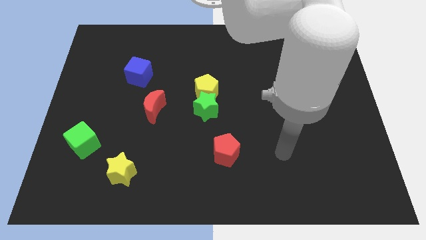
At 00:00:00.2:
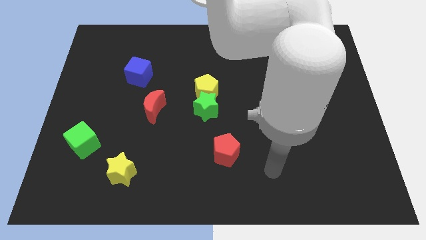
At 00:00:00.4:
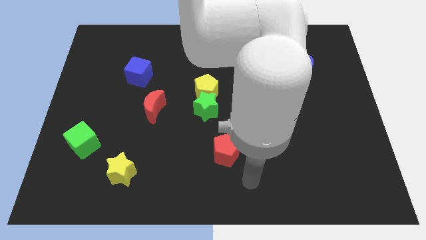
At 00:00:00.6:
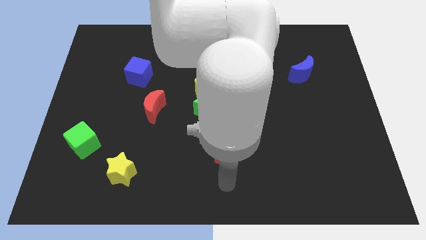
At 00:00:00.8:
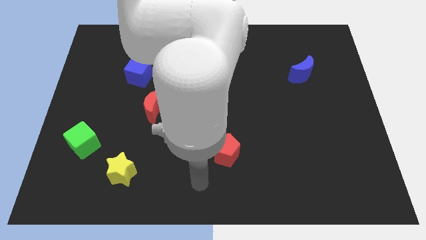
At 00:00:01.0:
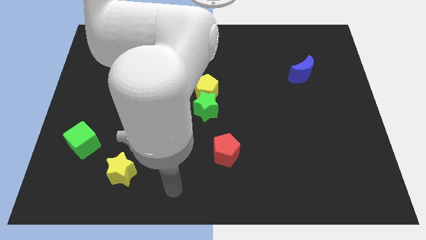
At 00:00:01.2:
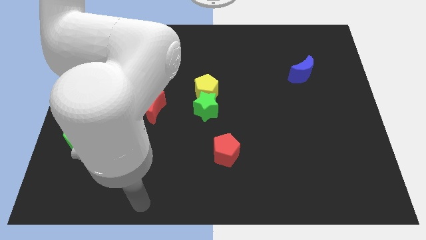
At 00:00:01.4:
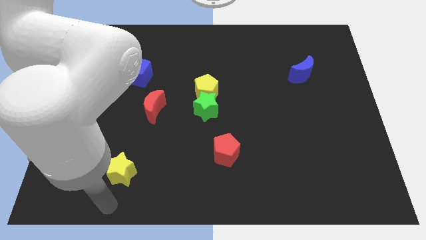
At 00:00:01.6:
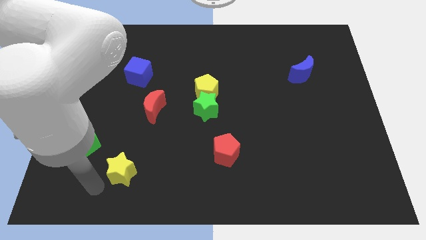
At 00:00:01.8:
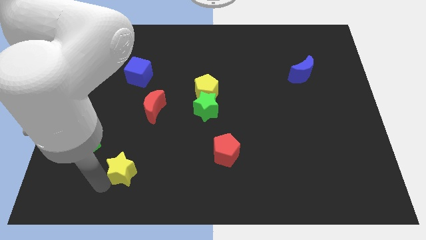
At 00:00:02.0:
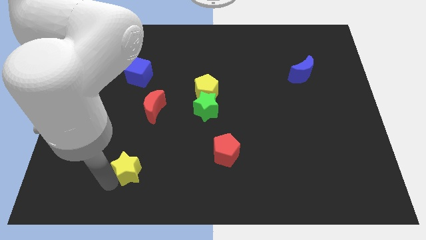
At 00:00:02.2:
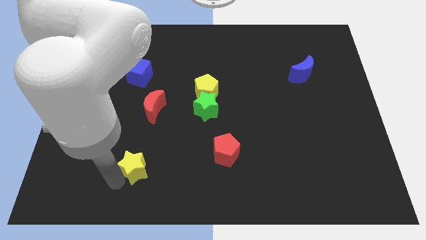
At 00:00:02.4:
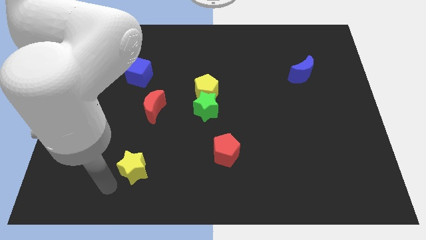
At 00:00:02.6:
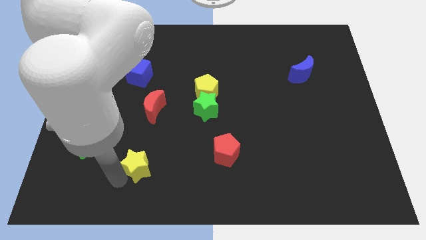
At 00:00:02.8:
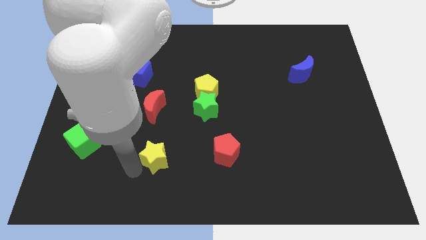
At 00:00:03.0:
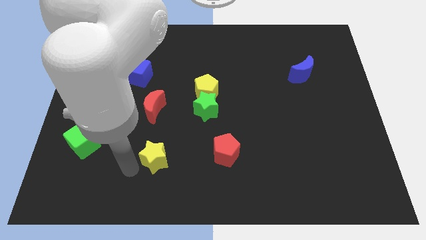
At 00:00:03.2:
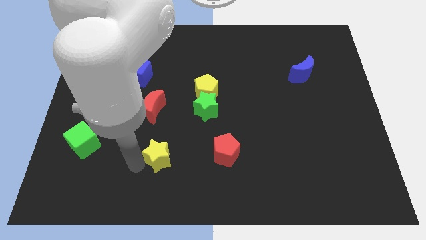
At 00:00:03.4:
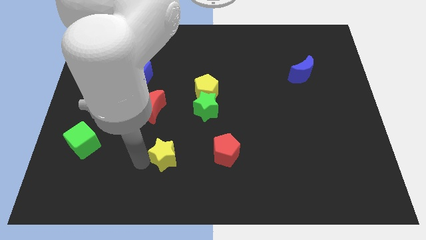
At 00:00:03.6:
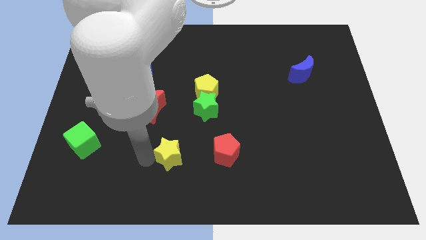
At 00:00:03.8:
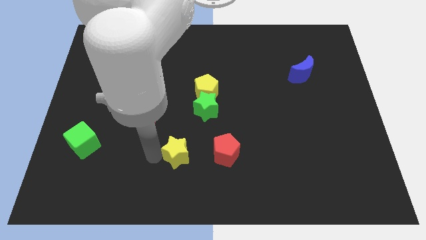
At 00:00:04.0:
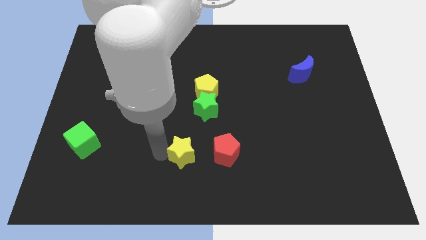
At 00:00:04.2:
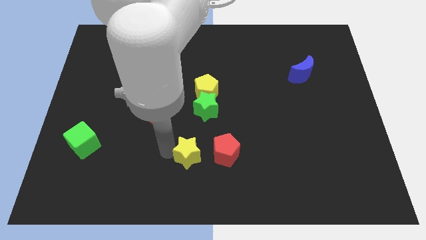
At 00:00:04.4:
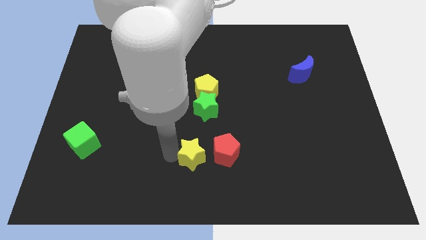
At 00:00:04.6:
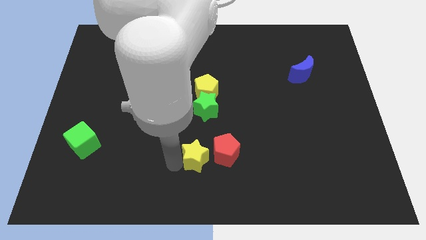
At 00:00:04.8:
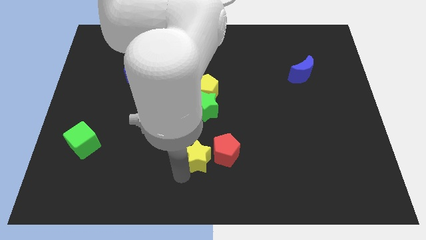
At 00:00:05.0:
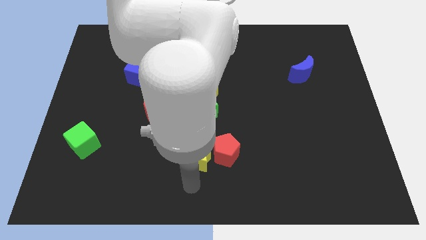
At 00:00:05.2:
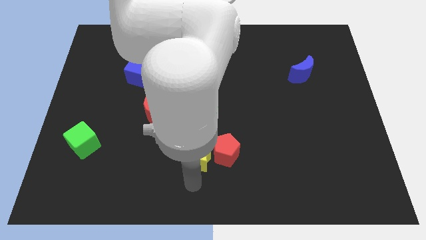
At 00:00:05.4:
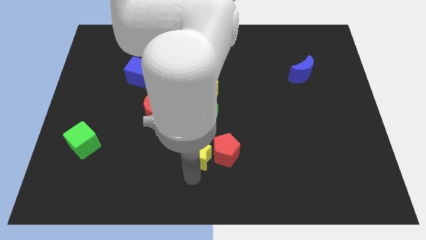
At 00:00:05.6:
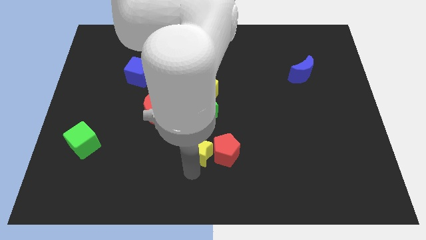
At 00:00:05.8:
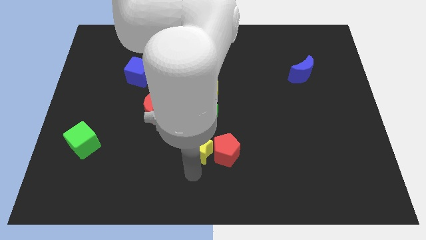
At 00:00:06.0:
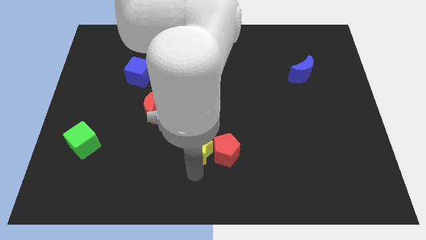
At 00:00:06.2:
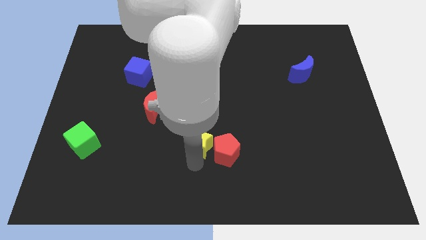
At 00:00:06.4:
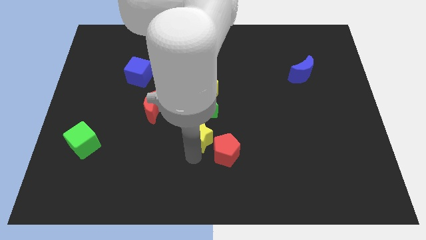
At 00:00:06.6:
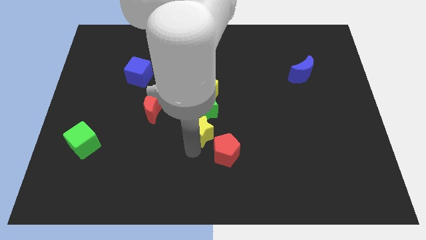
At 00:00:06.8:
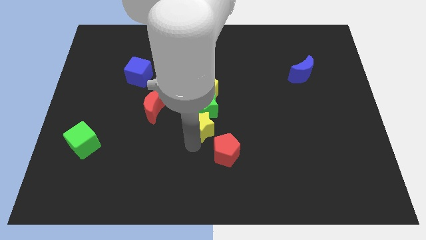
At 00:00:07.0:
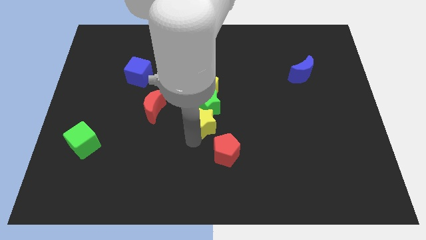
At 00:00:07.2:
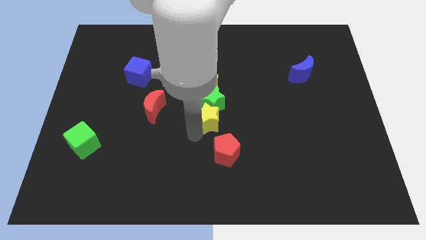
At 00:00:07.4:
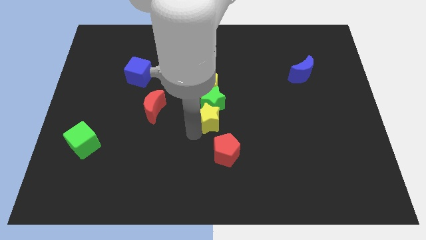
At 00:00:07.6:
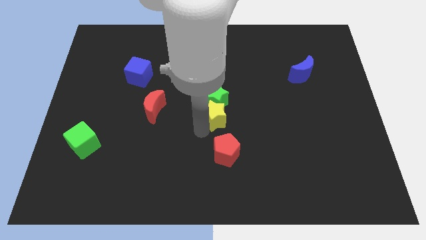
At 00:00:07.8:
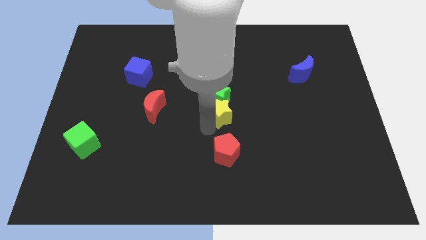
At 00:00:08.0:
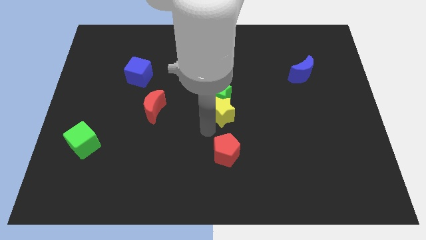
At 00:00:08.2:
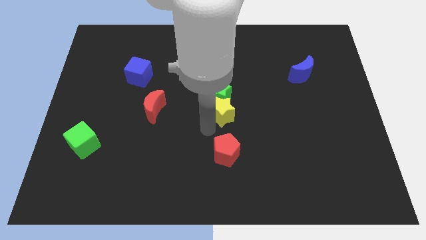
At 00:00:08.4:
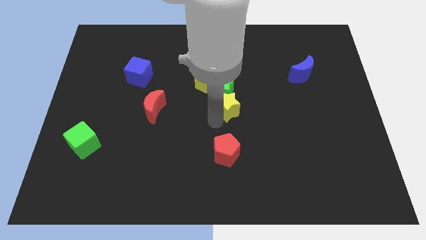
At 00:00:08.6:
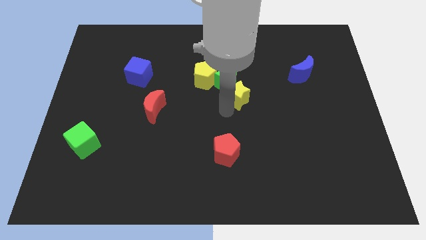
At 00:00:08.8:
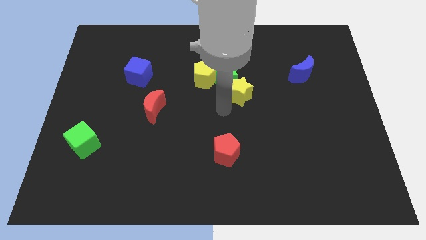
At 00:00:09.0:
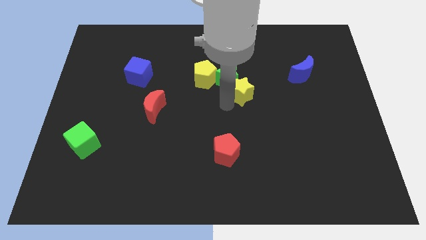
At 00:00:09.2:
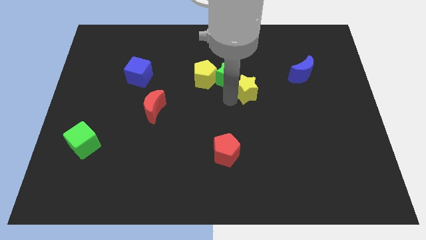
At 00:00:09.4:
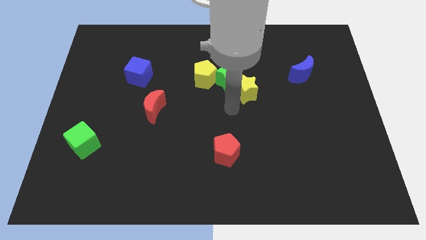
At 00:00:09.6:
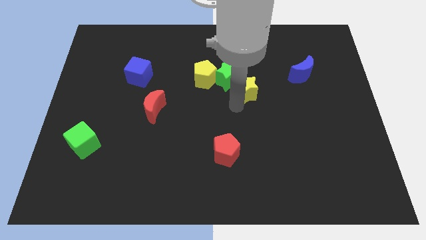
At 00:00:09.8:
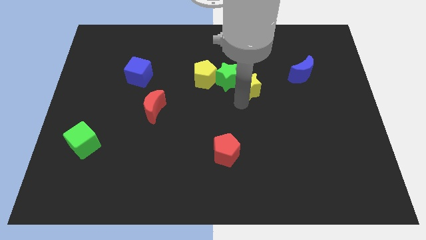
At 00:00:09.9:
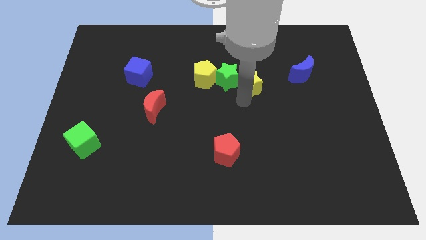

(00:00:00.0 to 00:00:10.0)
move the yellow star to the left of the blue moon

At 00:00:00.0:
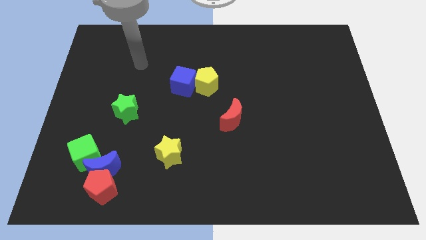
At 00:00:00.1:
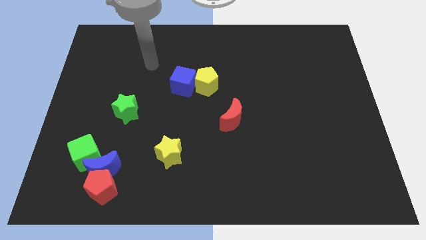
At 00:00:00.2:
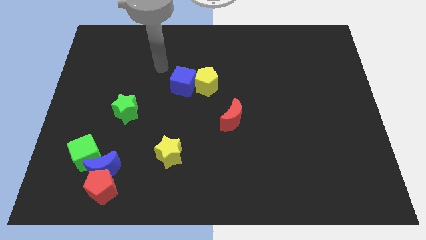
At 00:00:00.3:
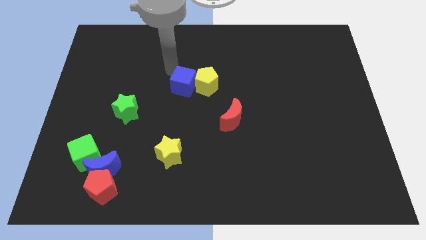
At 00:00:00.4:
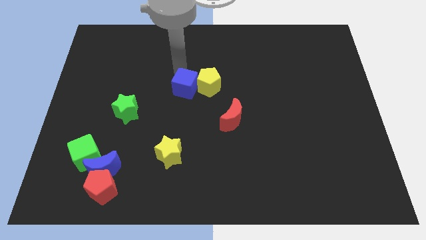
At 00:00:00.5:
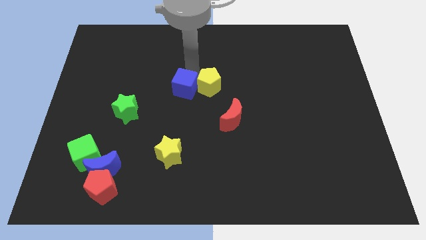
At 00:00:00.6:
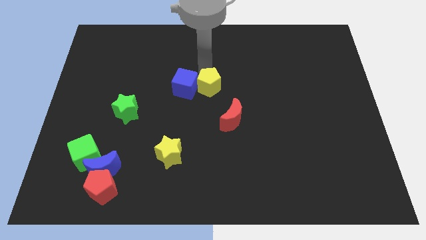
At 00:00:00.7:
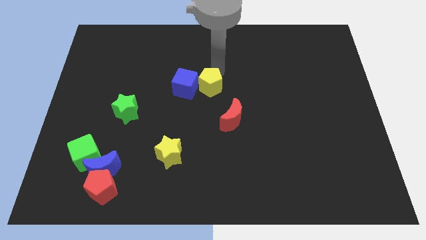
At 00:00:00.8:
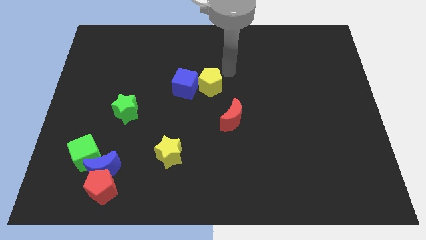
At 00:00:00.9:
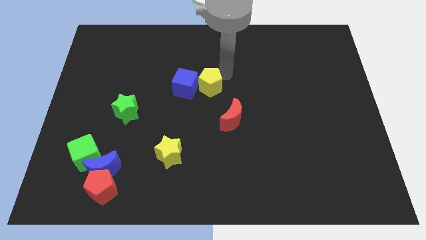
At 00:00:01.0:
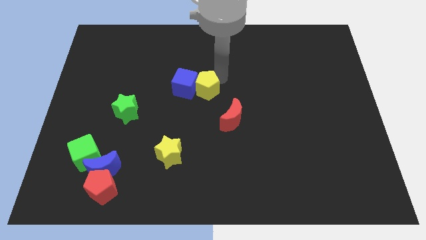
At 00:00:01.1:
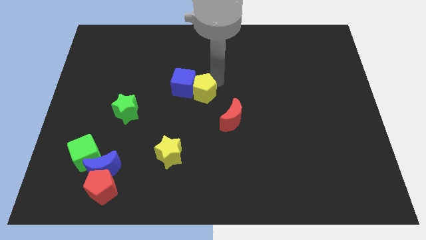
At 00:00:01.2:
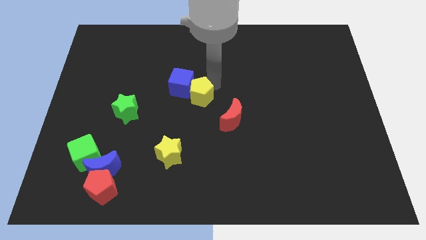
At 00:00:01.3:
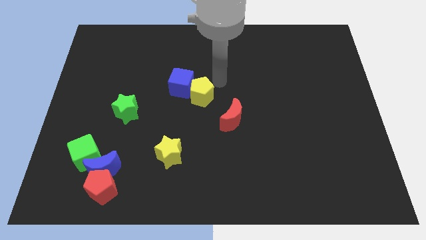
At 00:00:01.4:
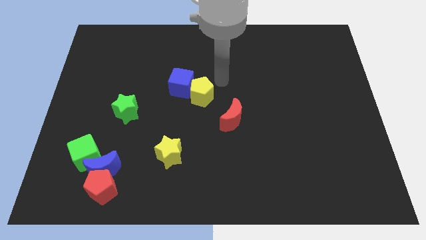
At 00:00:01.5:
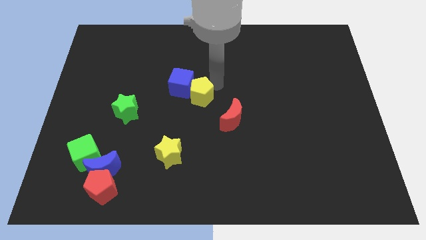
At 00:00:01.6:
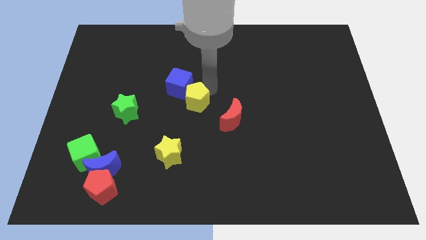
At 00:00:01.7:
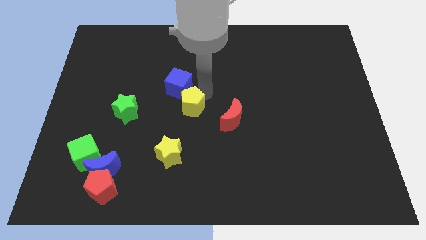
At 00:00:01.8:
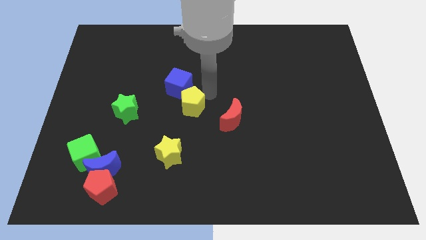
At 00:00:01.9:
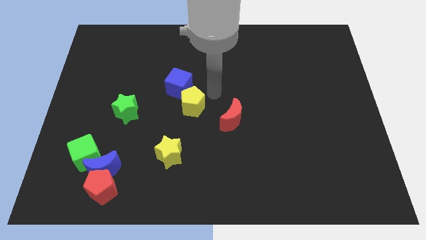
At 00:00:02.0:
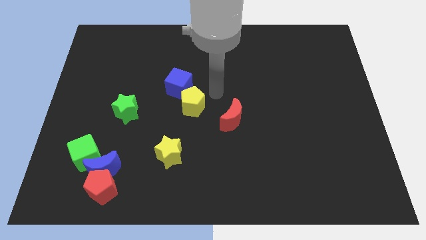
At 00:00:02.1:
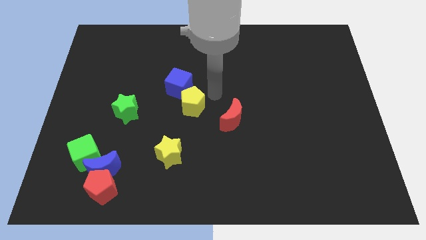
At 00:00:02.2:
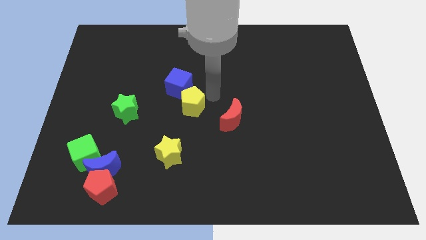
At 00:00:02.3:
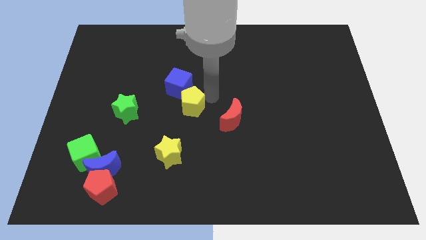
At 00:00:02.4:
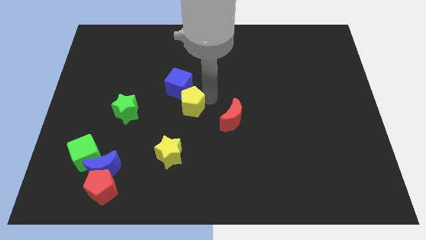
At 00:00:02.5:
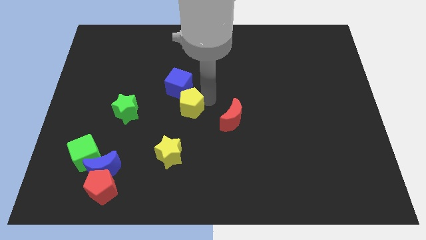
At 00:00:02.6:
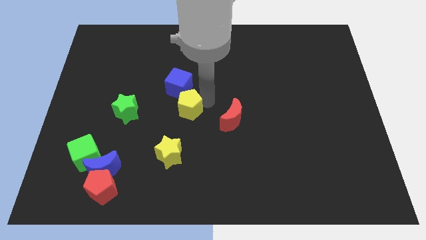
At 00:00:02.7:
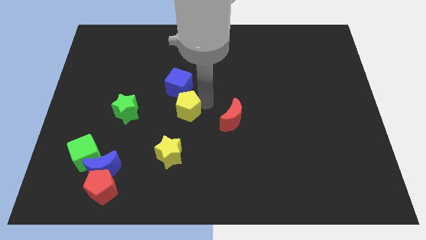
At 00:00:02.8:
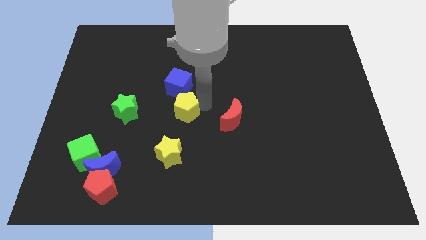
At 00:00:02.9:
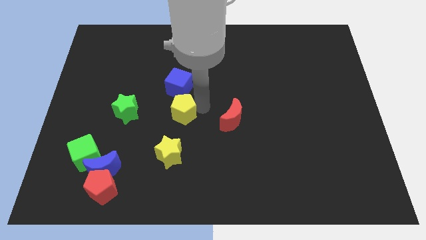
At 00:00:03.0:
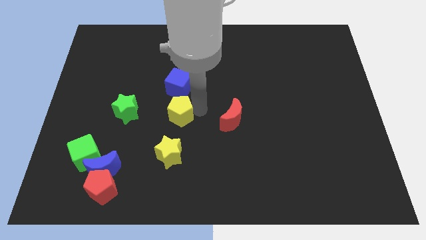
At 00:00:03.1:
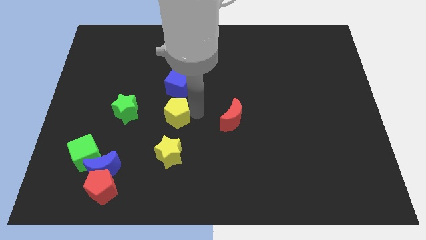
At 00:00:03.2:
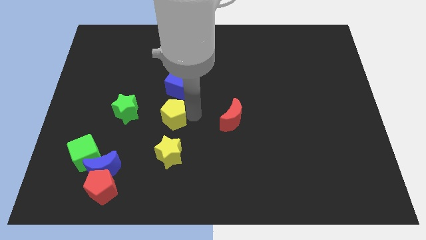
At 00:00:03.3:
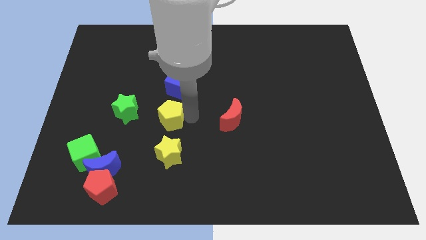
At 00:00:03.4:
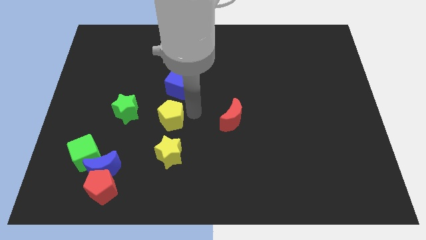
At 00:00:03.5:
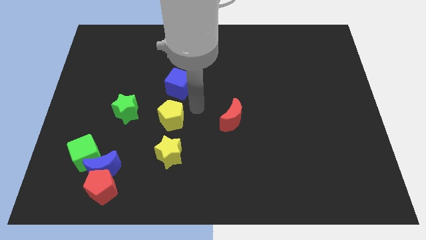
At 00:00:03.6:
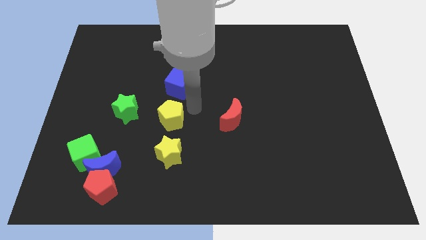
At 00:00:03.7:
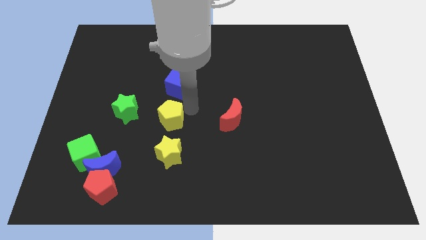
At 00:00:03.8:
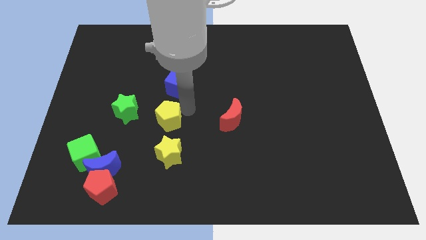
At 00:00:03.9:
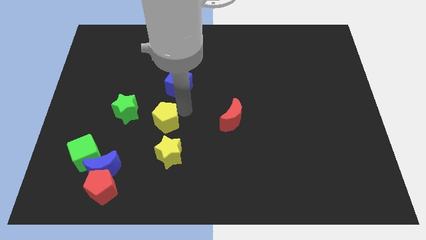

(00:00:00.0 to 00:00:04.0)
push the yellow pentagon diagonally down and to the right of the green star
